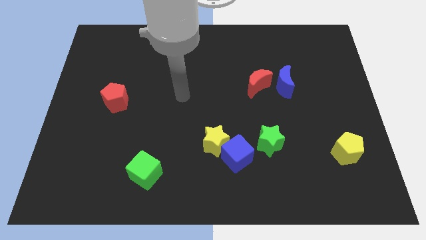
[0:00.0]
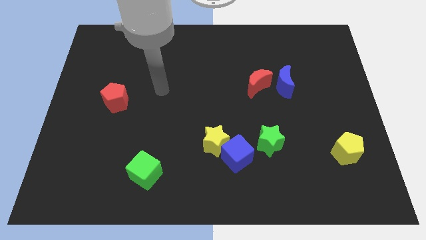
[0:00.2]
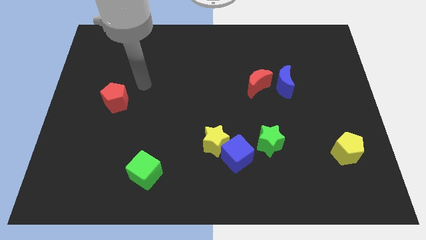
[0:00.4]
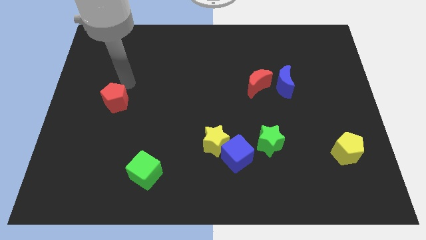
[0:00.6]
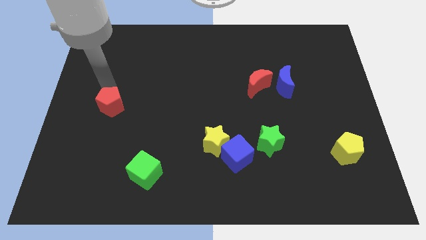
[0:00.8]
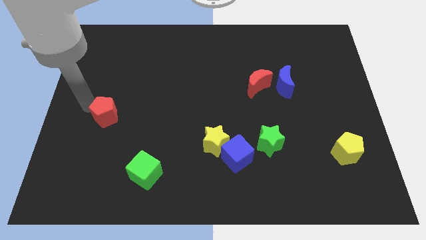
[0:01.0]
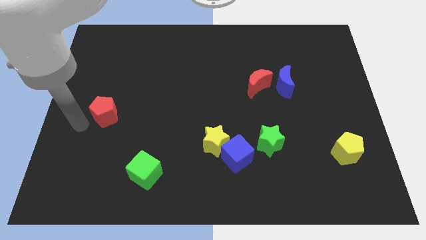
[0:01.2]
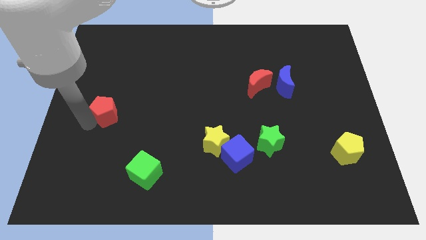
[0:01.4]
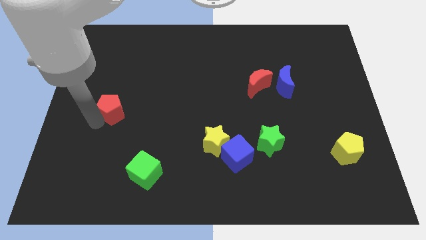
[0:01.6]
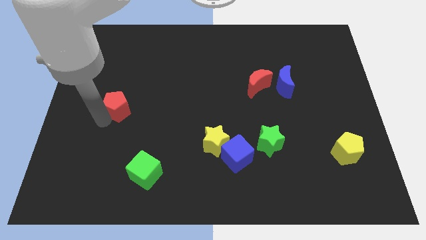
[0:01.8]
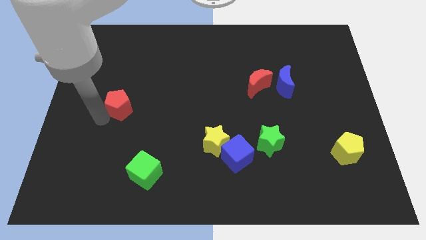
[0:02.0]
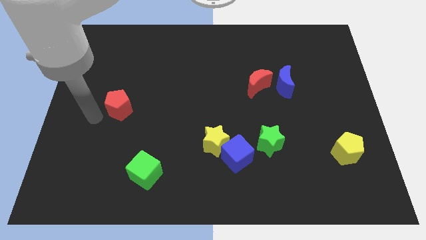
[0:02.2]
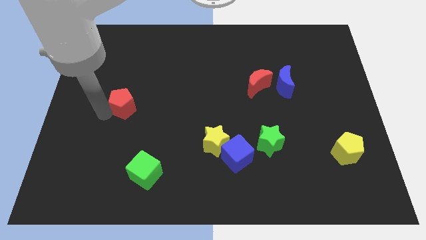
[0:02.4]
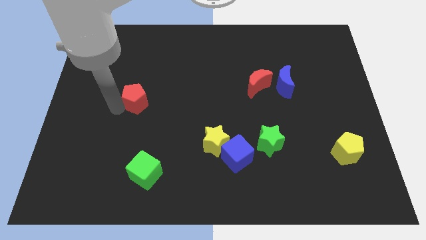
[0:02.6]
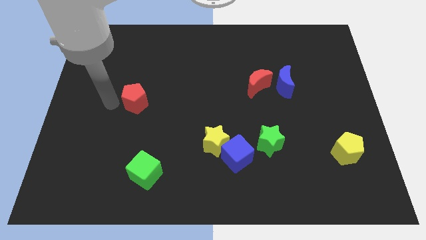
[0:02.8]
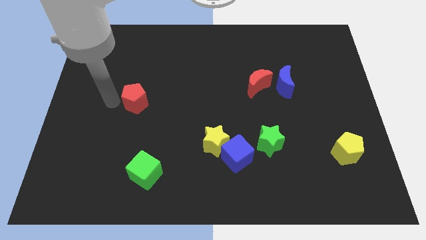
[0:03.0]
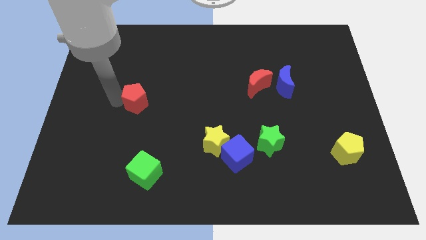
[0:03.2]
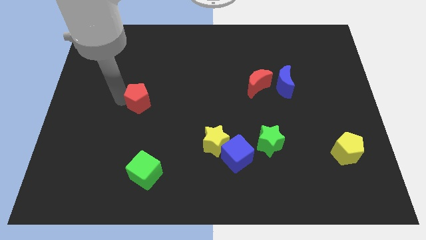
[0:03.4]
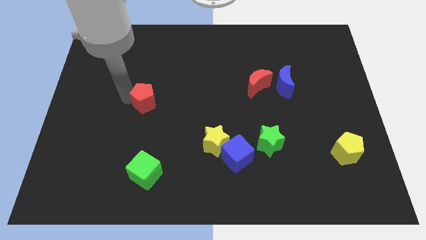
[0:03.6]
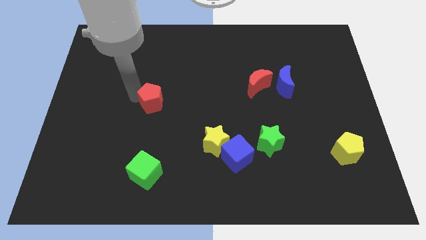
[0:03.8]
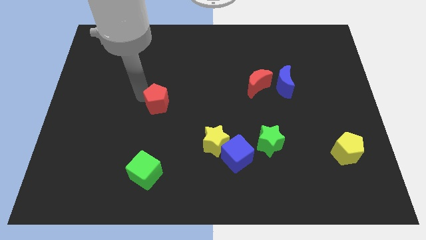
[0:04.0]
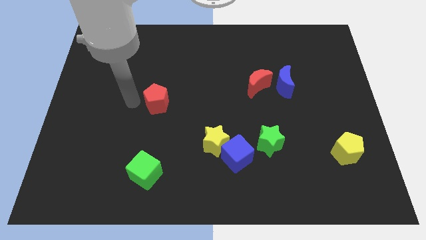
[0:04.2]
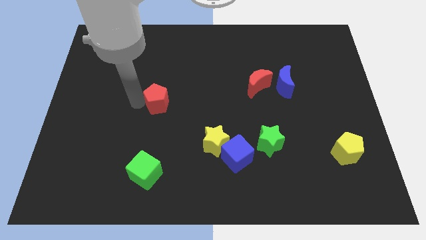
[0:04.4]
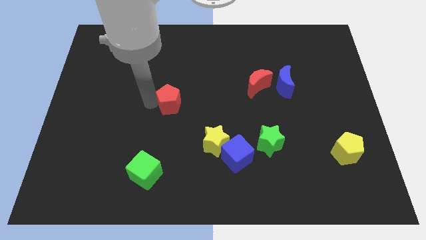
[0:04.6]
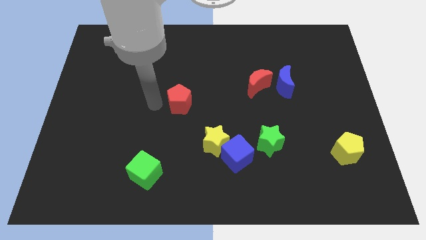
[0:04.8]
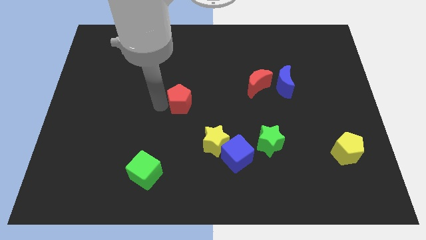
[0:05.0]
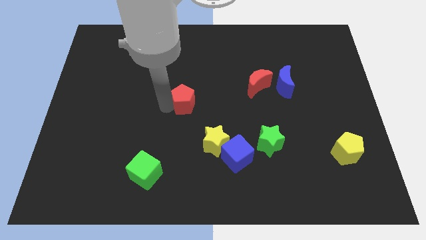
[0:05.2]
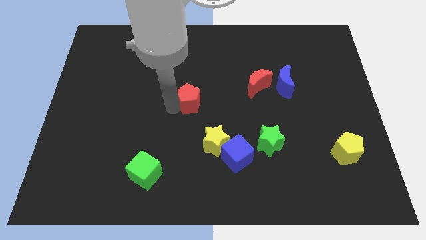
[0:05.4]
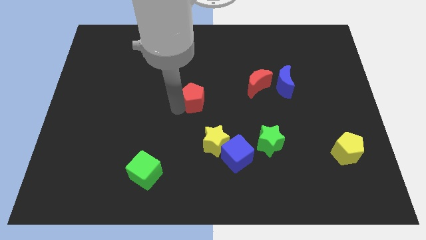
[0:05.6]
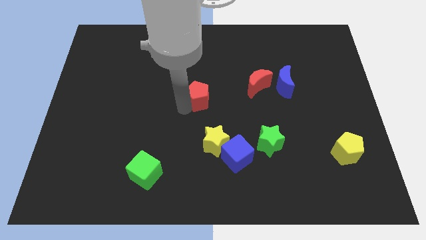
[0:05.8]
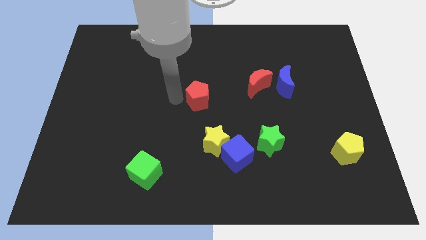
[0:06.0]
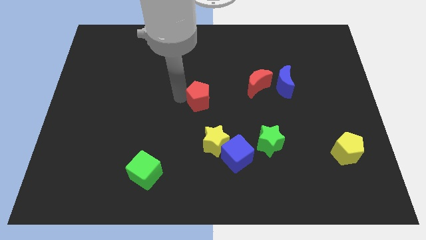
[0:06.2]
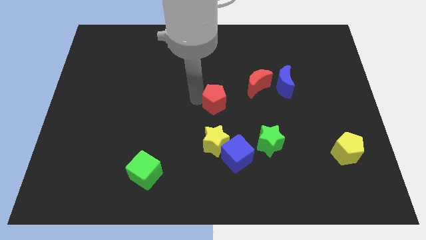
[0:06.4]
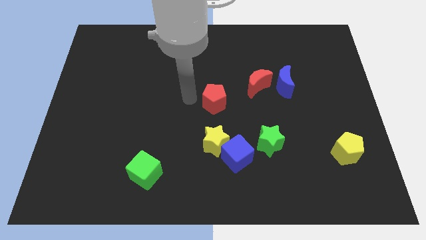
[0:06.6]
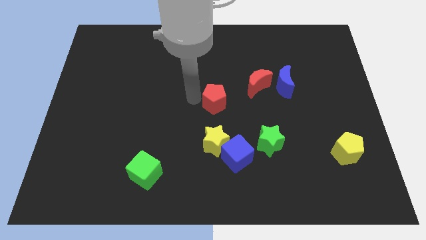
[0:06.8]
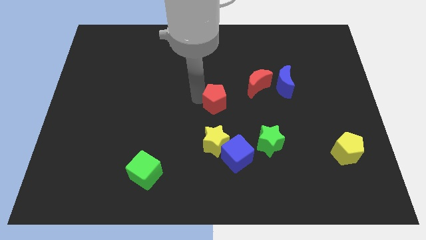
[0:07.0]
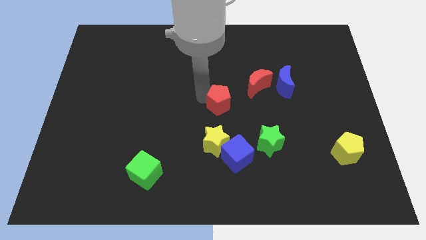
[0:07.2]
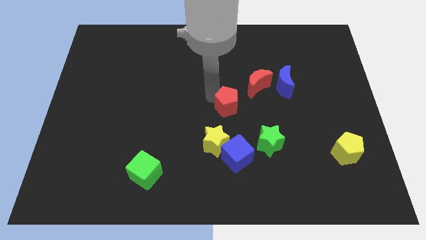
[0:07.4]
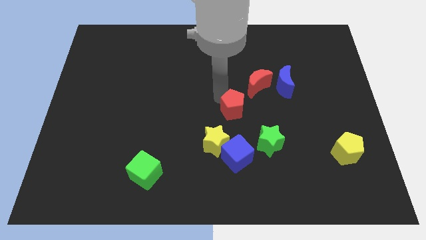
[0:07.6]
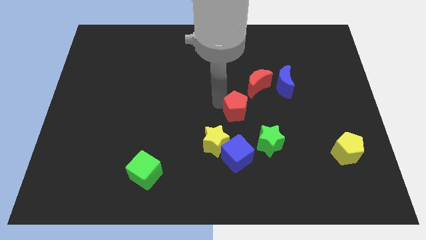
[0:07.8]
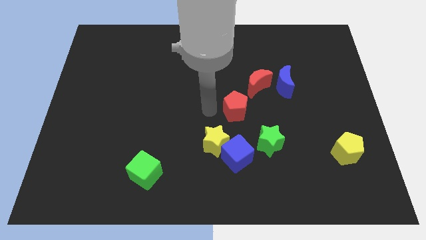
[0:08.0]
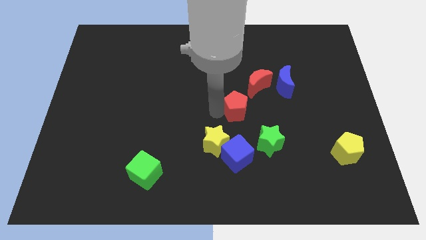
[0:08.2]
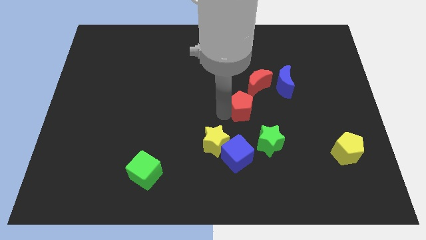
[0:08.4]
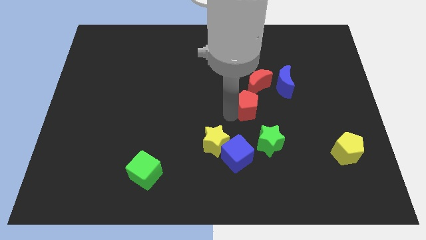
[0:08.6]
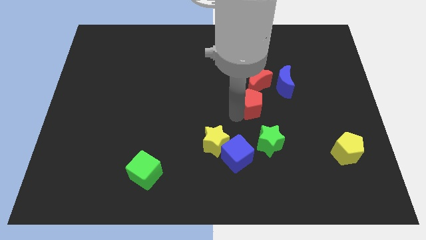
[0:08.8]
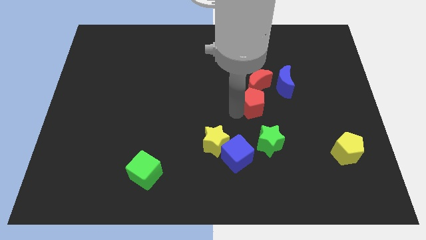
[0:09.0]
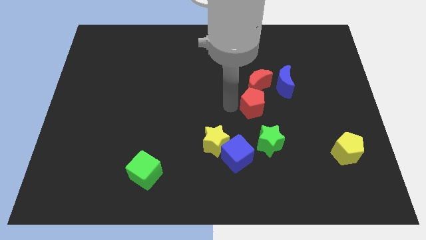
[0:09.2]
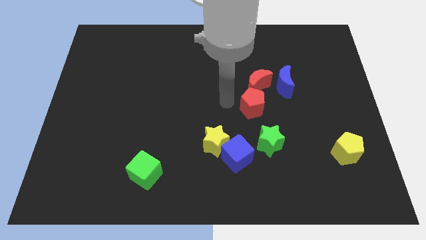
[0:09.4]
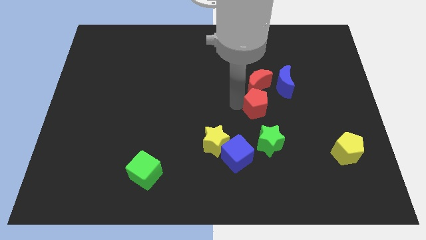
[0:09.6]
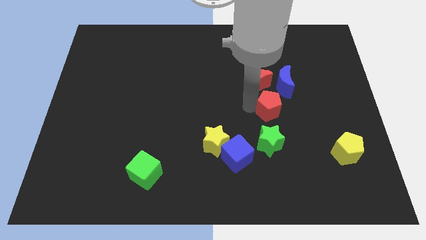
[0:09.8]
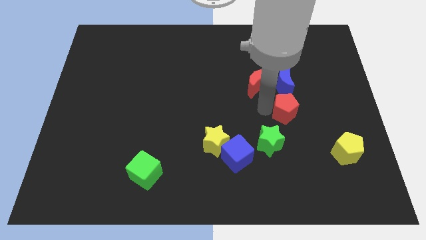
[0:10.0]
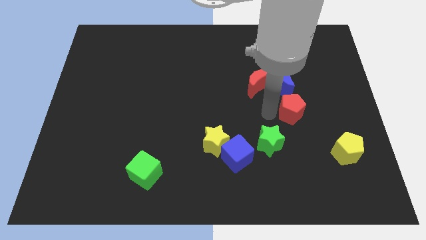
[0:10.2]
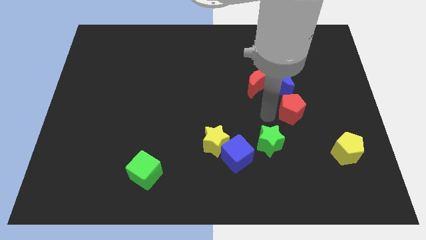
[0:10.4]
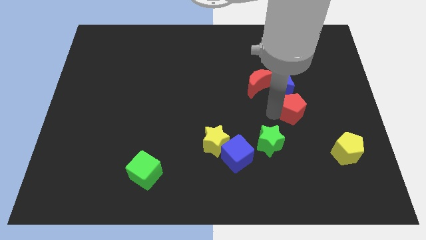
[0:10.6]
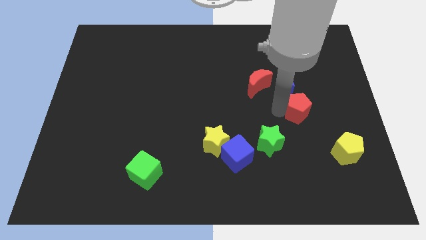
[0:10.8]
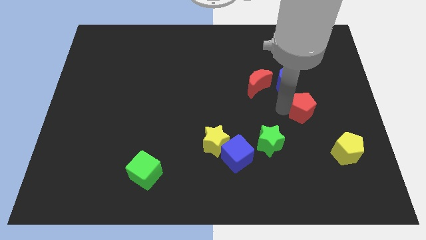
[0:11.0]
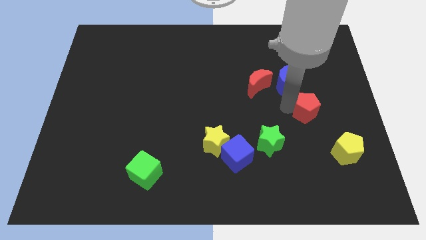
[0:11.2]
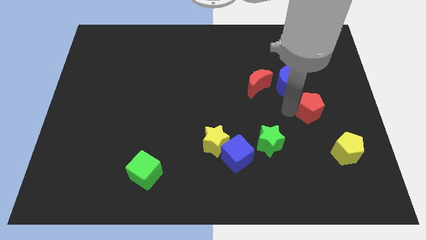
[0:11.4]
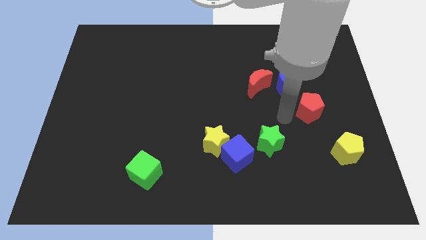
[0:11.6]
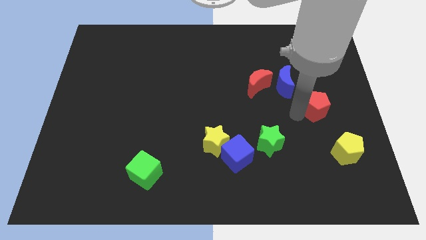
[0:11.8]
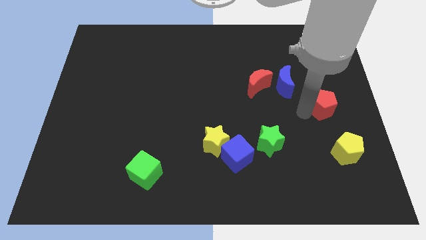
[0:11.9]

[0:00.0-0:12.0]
move the red pentagon to the right side of the board

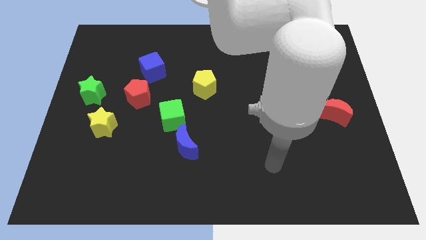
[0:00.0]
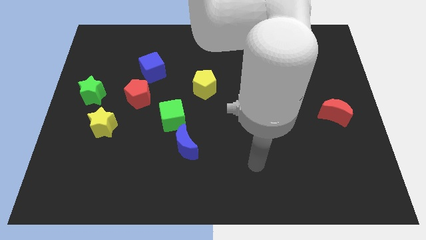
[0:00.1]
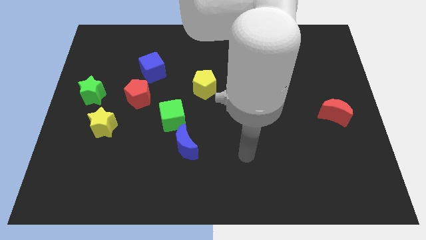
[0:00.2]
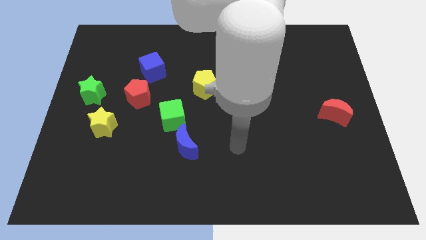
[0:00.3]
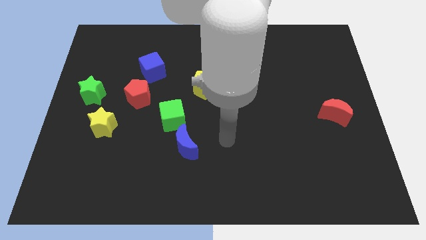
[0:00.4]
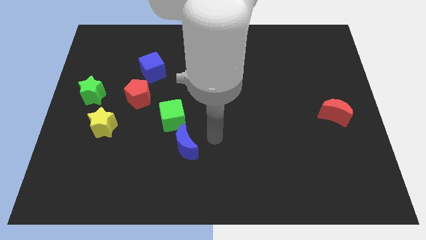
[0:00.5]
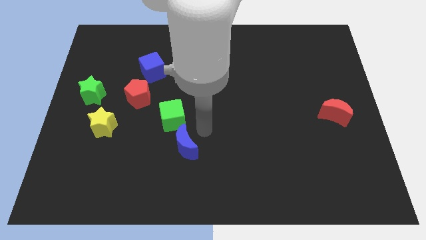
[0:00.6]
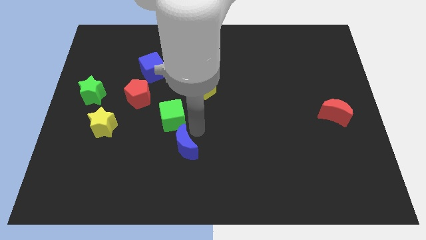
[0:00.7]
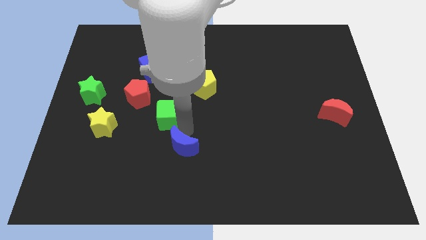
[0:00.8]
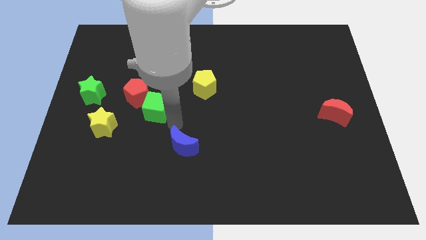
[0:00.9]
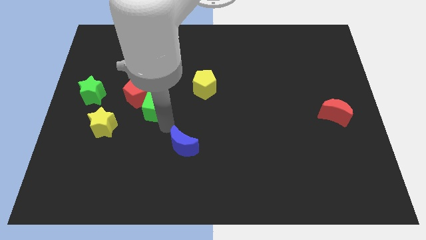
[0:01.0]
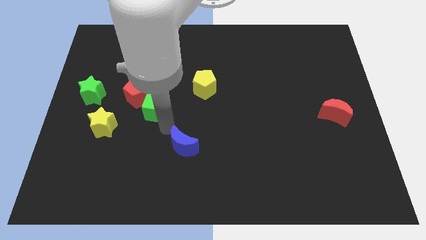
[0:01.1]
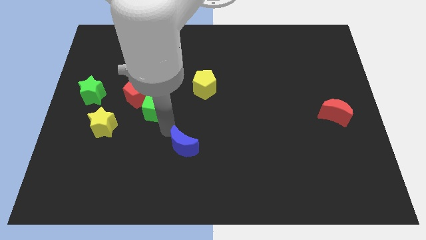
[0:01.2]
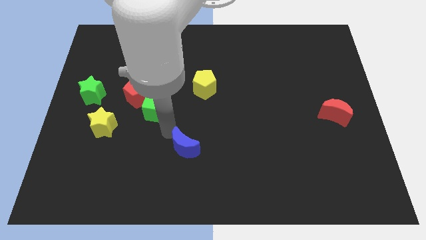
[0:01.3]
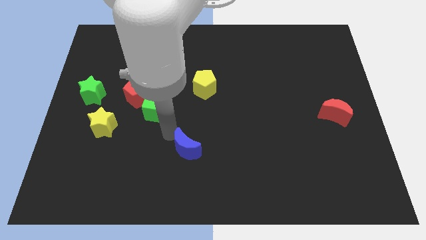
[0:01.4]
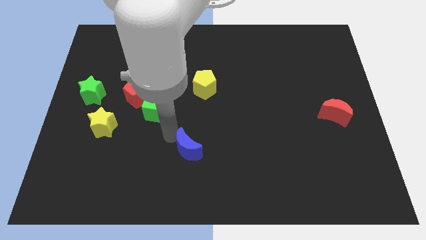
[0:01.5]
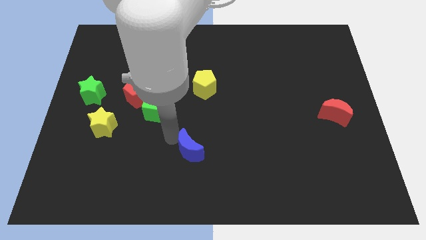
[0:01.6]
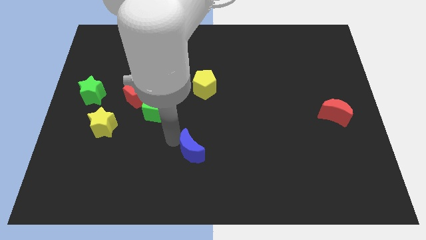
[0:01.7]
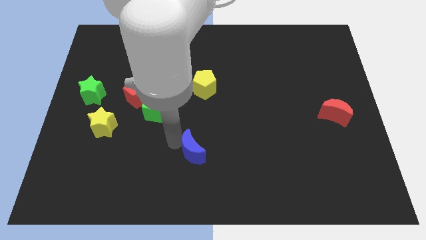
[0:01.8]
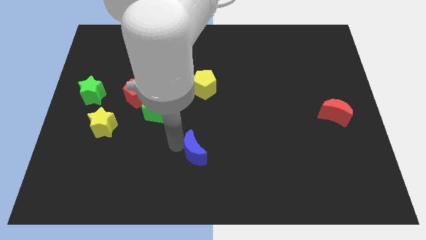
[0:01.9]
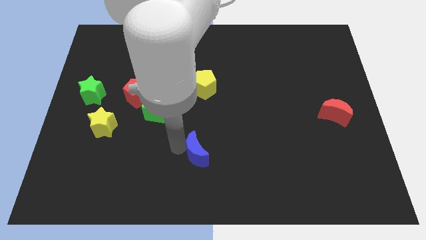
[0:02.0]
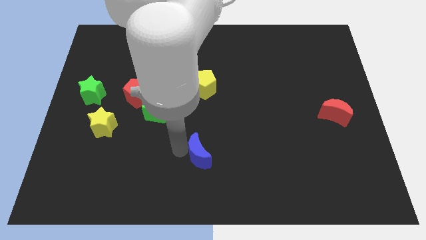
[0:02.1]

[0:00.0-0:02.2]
put the blue moon to the bottom side
